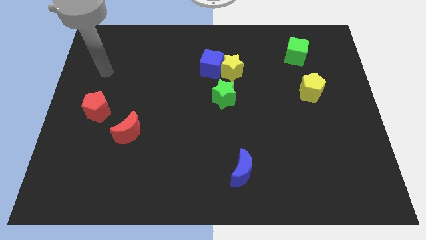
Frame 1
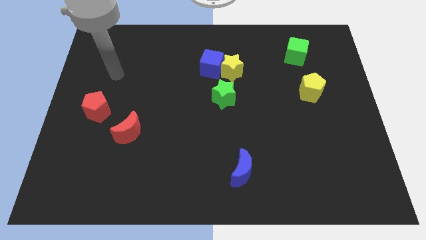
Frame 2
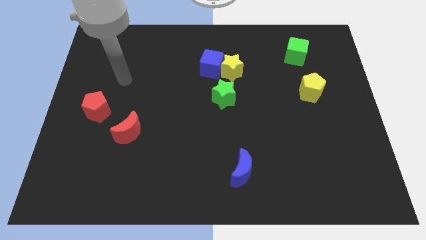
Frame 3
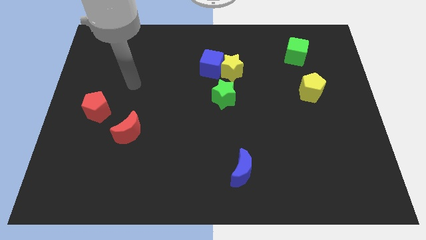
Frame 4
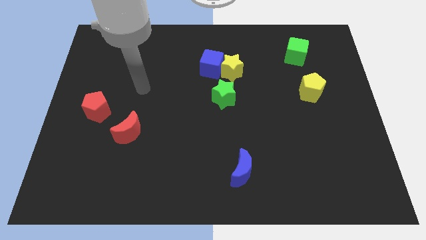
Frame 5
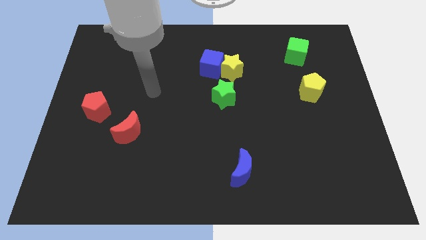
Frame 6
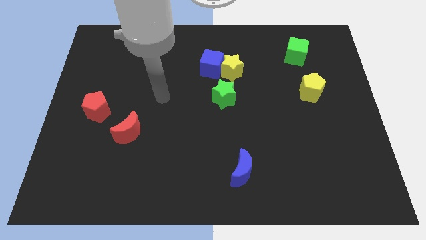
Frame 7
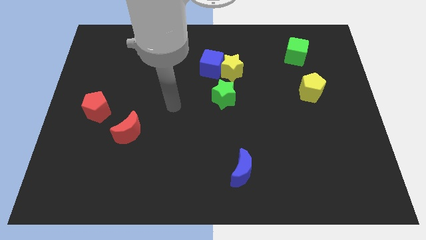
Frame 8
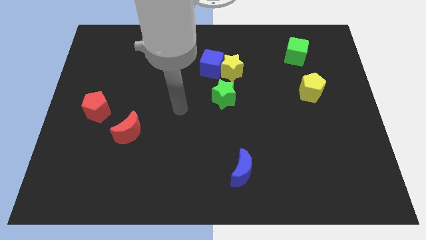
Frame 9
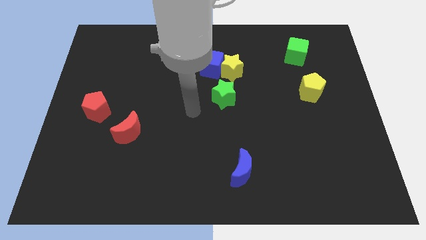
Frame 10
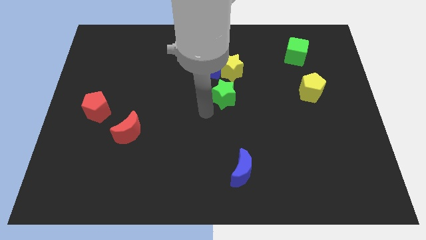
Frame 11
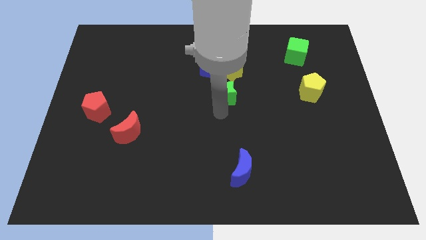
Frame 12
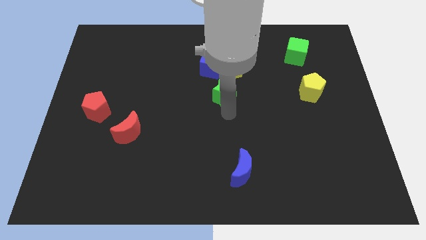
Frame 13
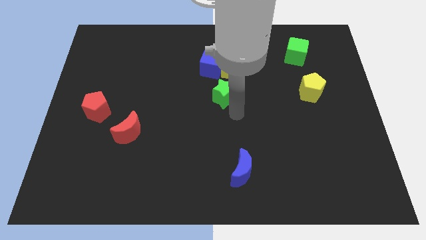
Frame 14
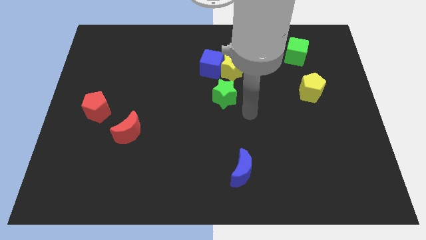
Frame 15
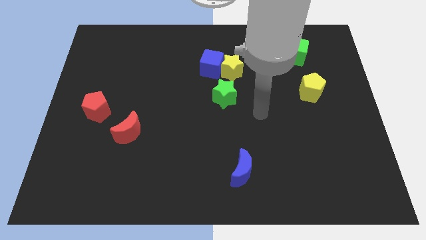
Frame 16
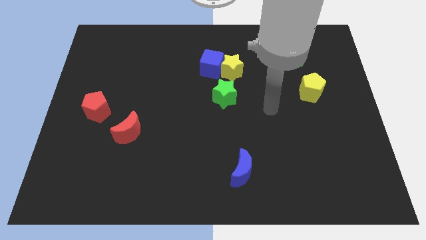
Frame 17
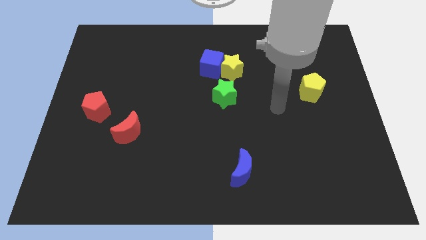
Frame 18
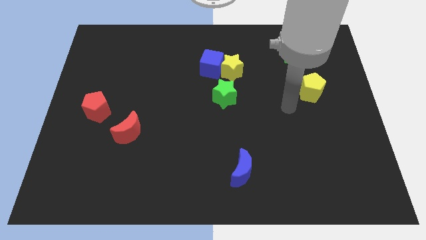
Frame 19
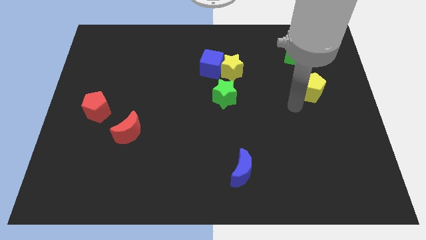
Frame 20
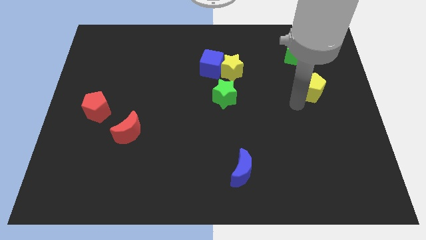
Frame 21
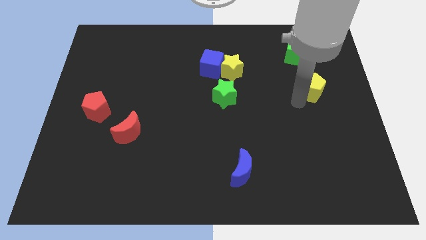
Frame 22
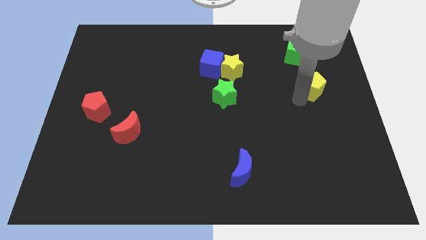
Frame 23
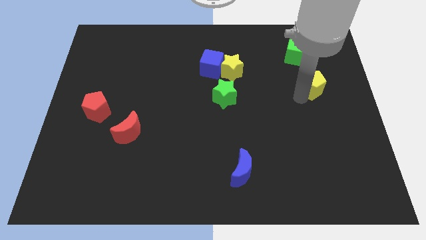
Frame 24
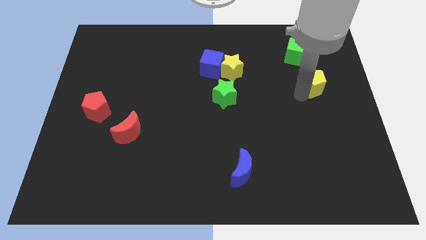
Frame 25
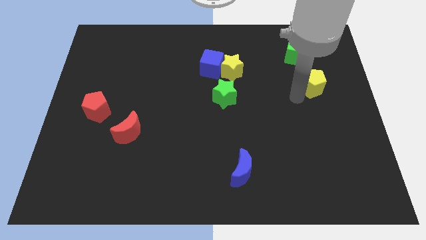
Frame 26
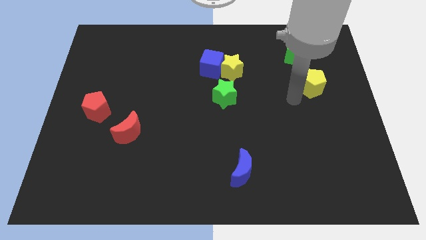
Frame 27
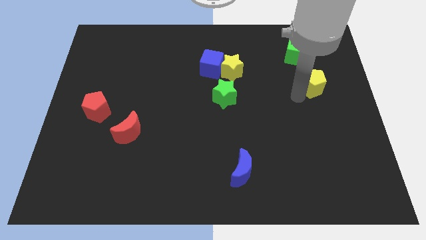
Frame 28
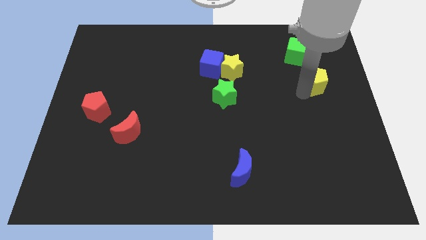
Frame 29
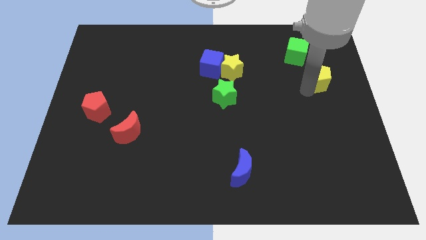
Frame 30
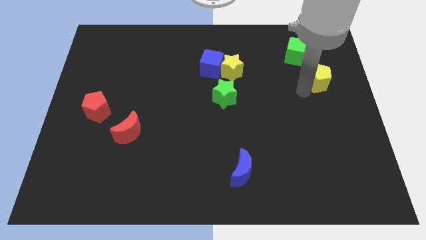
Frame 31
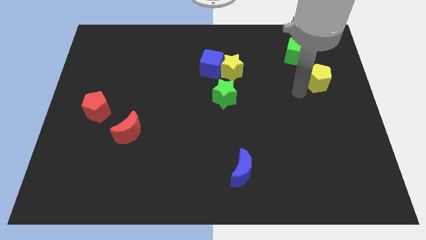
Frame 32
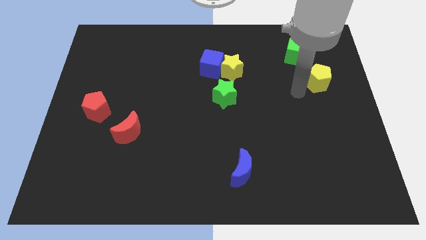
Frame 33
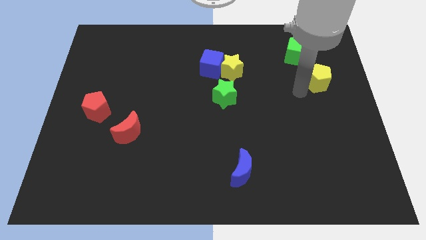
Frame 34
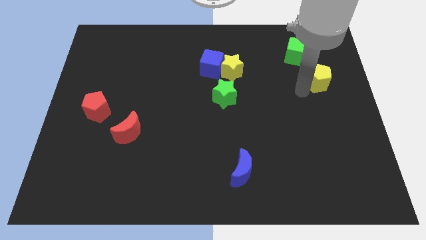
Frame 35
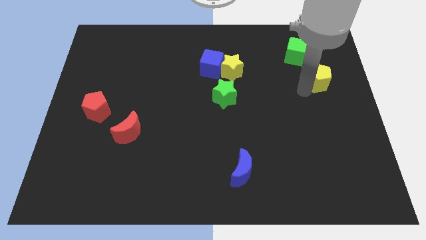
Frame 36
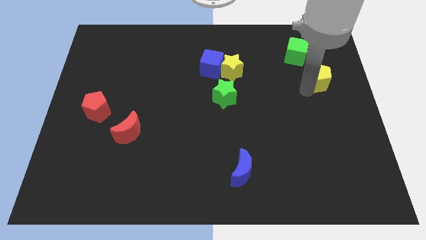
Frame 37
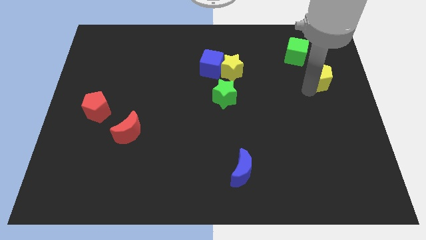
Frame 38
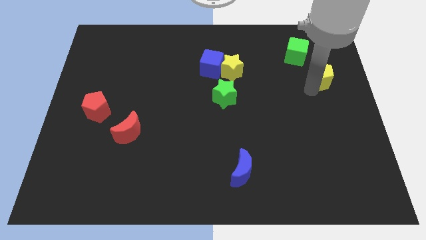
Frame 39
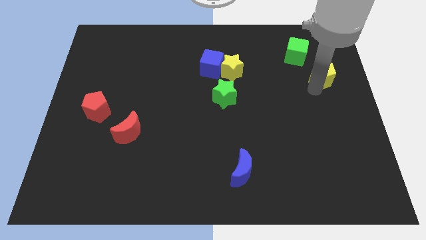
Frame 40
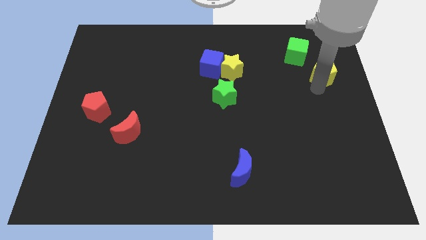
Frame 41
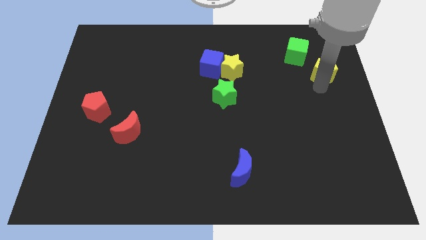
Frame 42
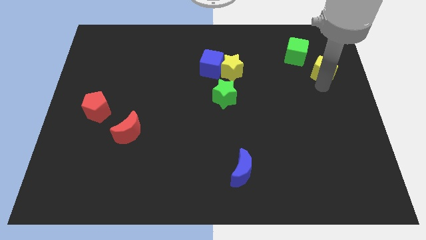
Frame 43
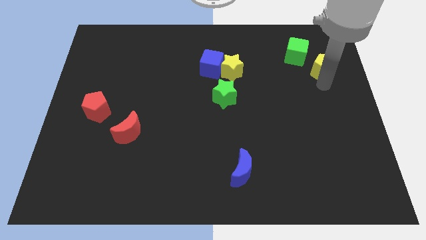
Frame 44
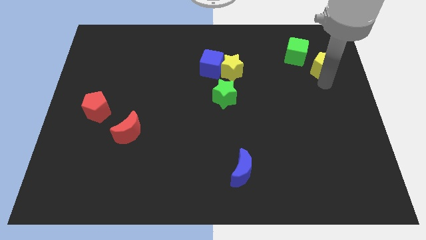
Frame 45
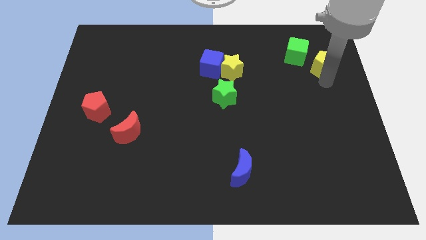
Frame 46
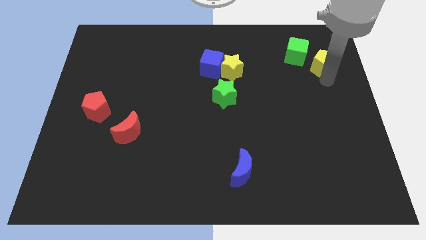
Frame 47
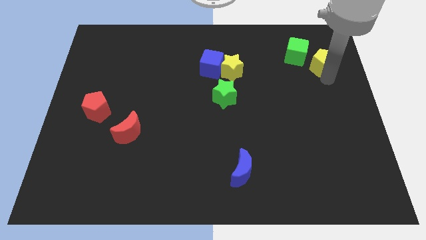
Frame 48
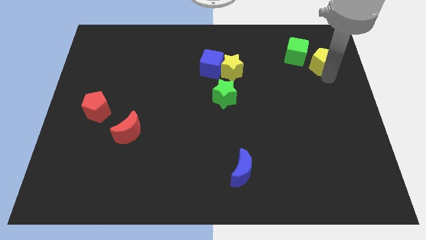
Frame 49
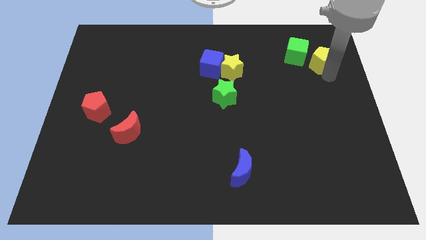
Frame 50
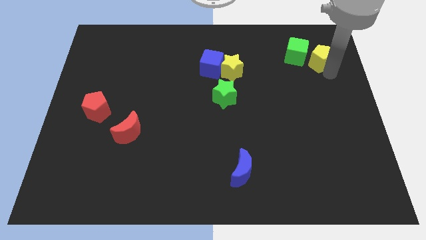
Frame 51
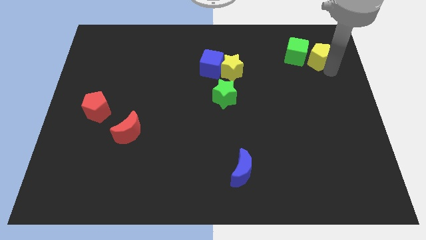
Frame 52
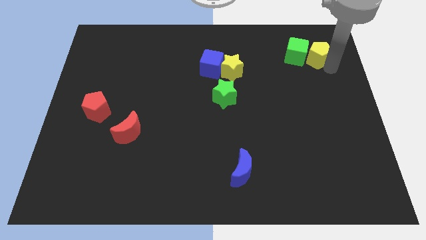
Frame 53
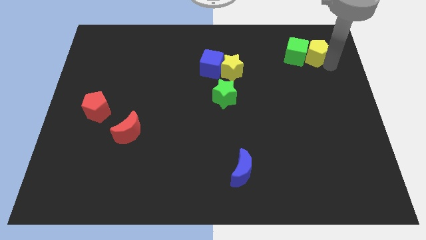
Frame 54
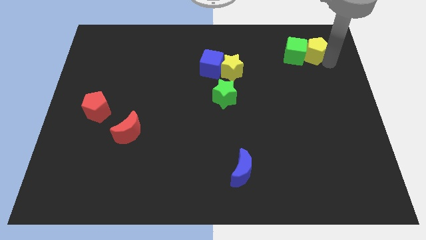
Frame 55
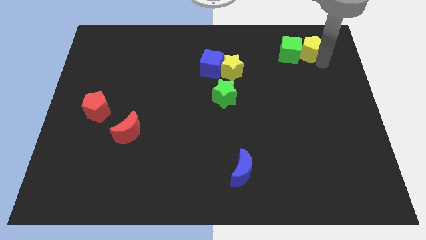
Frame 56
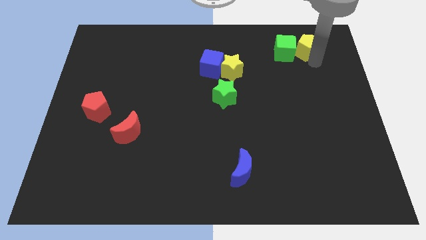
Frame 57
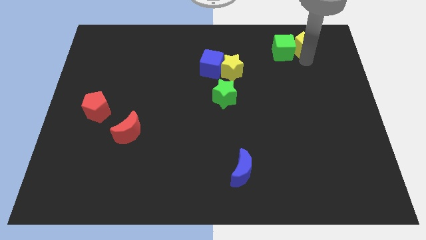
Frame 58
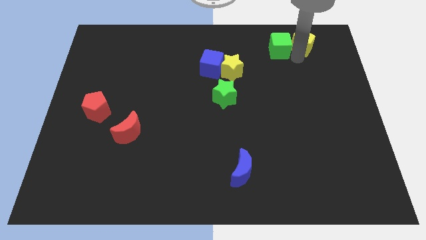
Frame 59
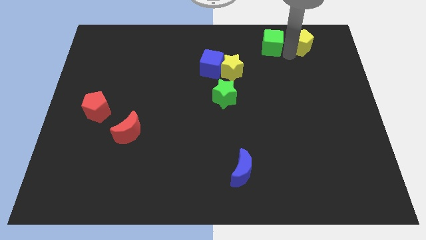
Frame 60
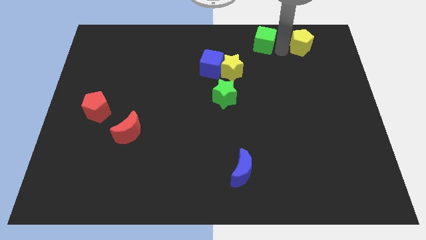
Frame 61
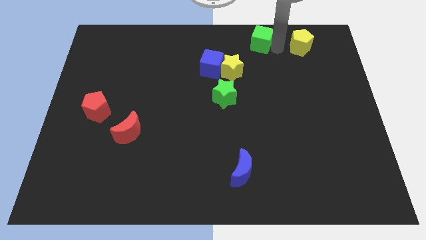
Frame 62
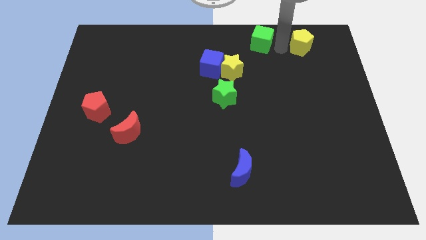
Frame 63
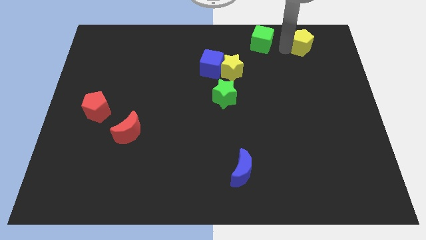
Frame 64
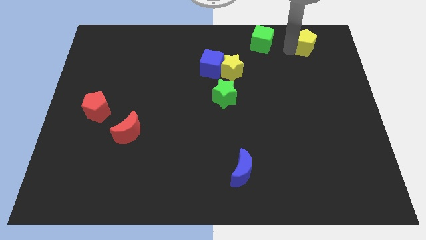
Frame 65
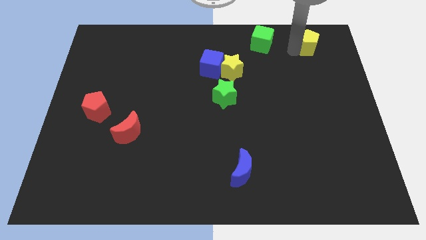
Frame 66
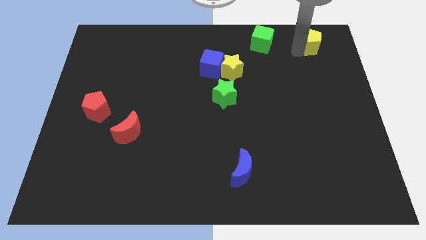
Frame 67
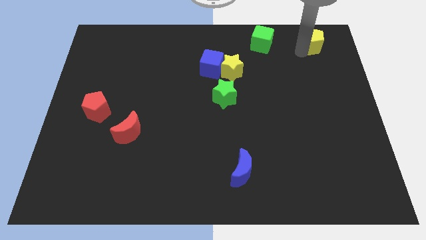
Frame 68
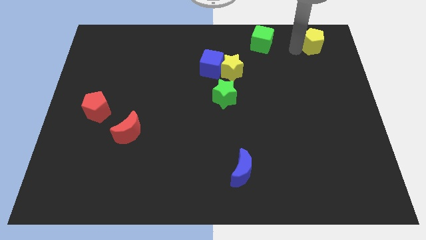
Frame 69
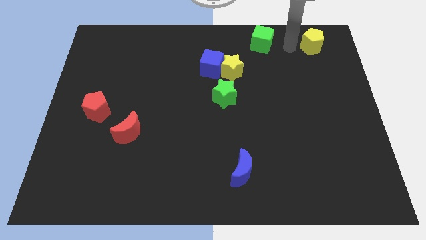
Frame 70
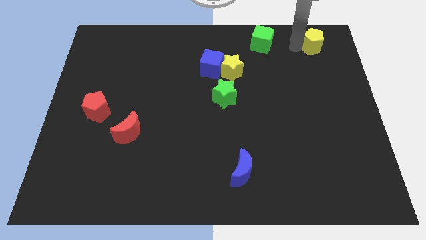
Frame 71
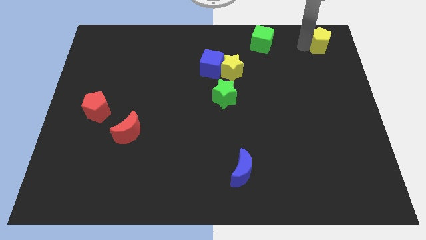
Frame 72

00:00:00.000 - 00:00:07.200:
move the yellow pentagon to the top right corner
